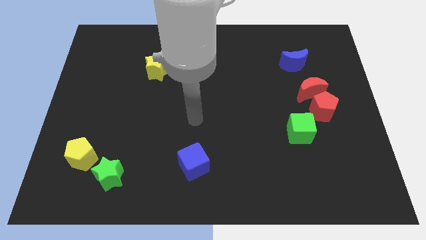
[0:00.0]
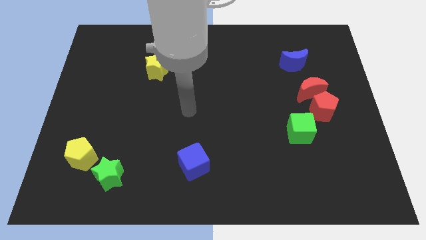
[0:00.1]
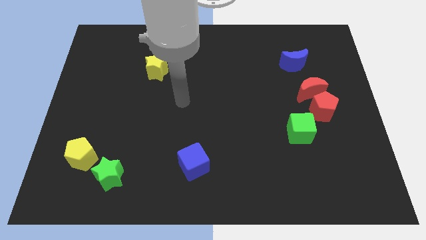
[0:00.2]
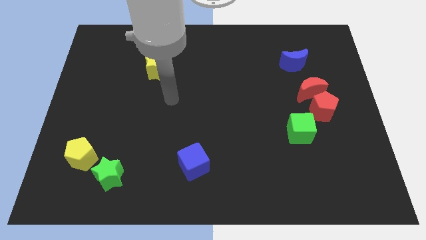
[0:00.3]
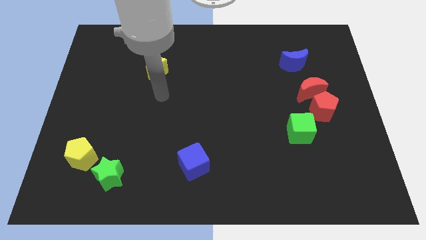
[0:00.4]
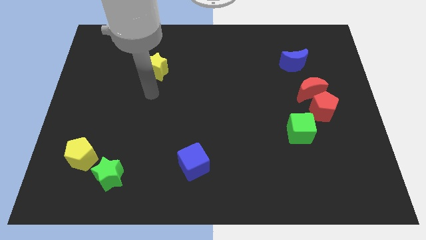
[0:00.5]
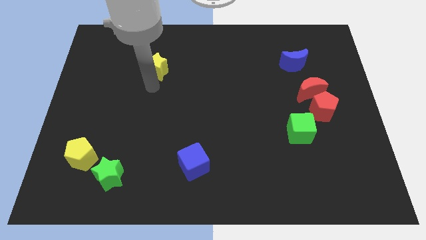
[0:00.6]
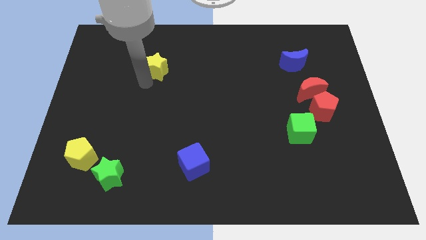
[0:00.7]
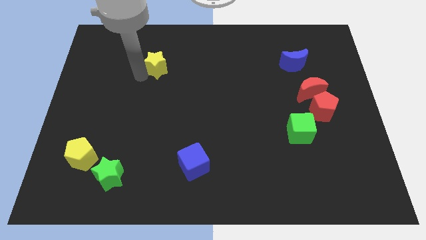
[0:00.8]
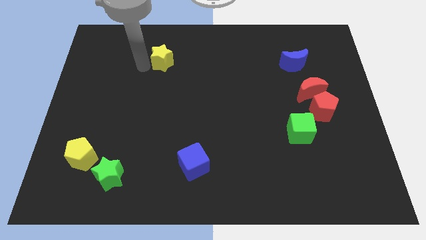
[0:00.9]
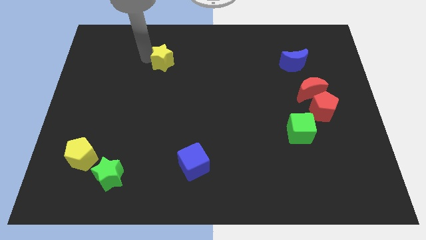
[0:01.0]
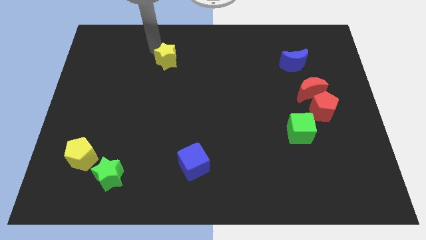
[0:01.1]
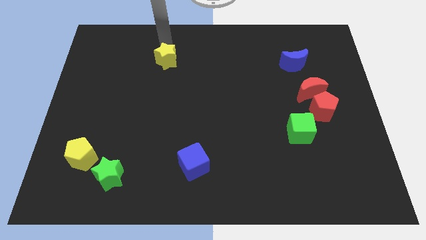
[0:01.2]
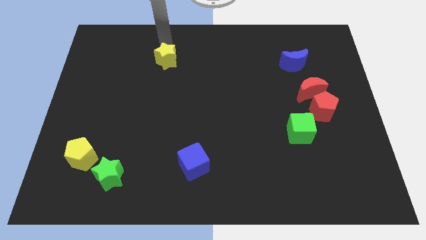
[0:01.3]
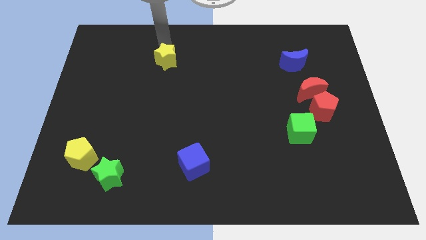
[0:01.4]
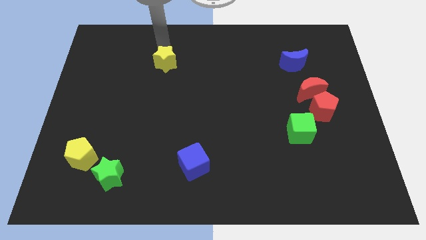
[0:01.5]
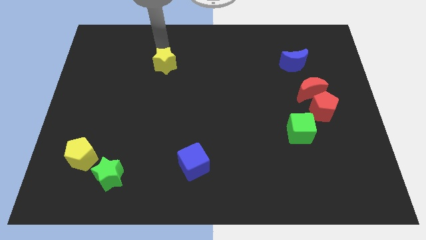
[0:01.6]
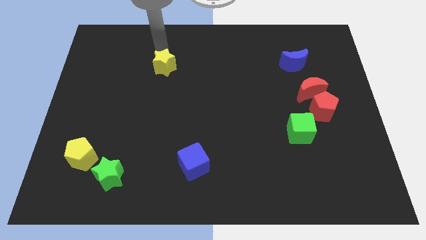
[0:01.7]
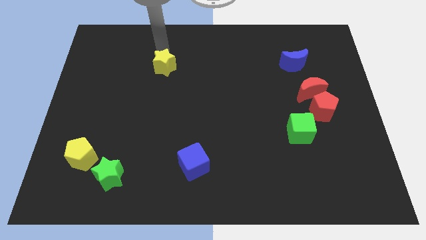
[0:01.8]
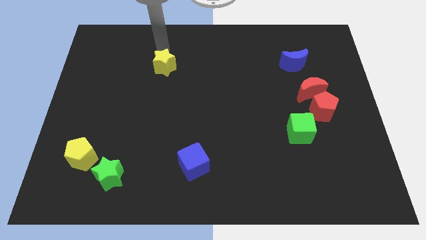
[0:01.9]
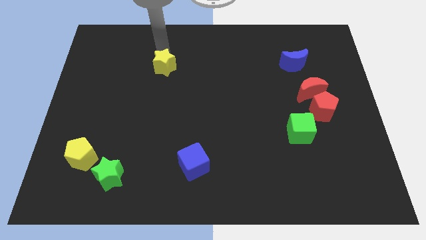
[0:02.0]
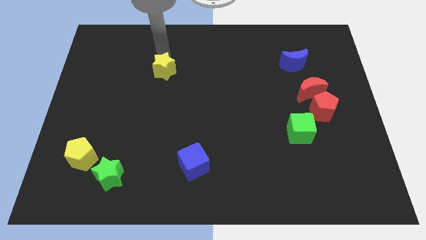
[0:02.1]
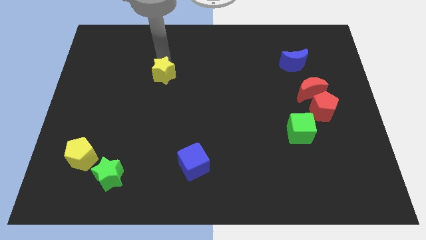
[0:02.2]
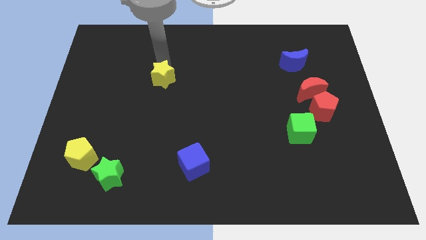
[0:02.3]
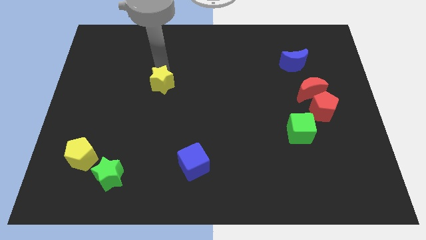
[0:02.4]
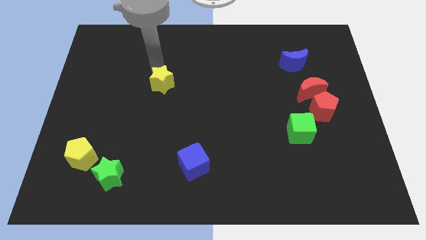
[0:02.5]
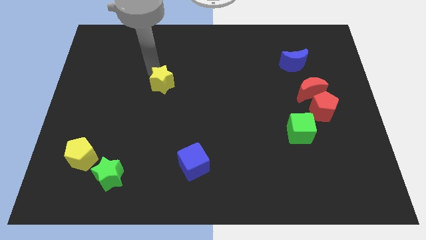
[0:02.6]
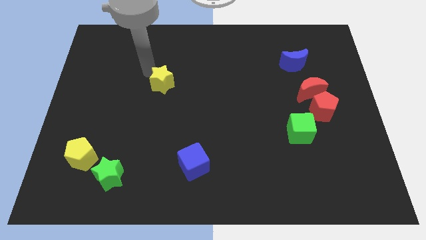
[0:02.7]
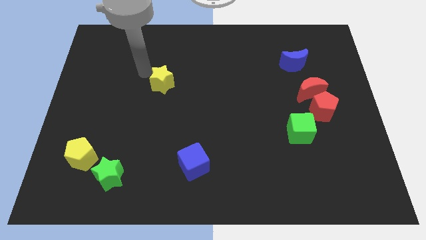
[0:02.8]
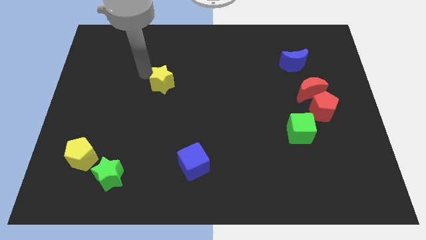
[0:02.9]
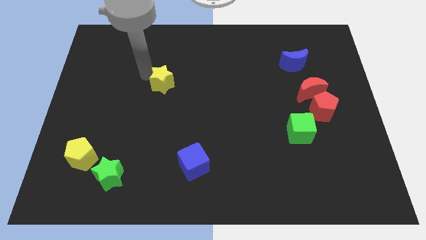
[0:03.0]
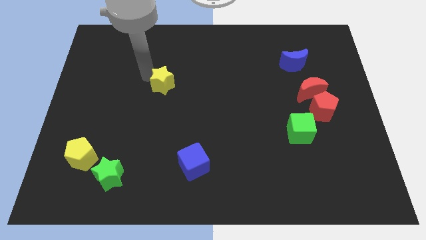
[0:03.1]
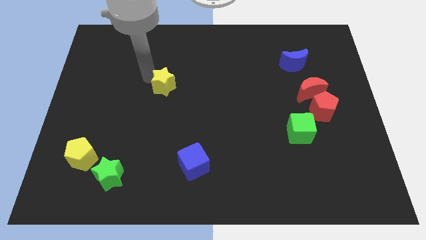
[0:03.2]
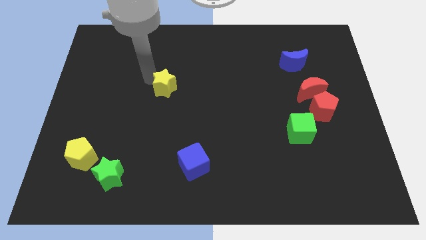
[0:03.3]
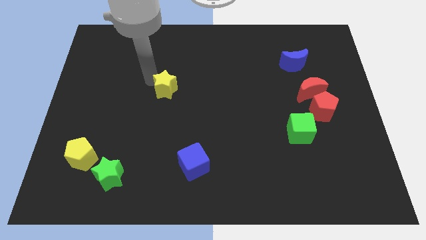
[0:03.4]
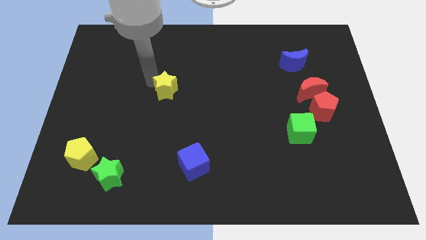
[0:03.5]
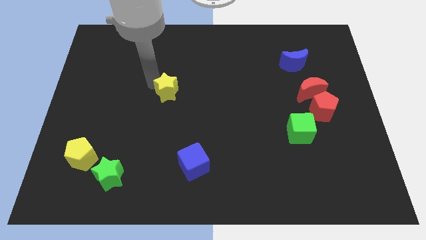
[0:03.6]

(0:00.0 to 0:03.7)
push the yellow star a little down and then right

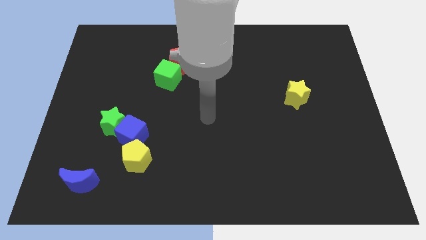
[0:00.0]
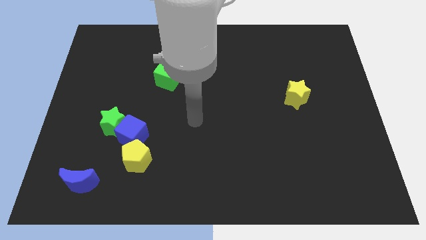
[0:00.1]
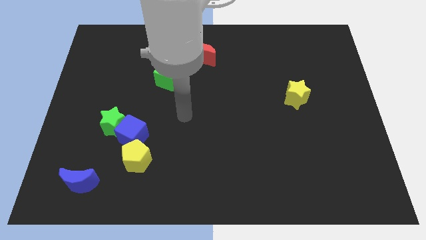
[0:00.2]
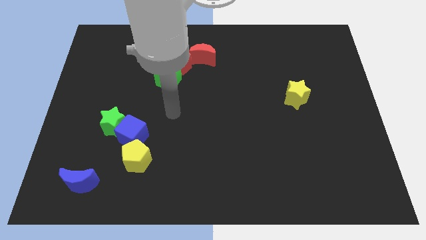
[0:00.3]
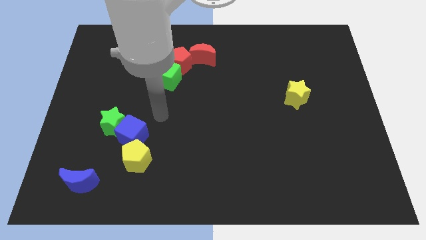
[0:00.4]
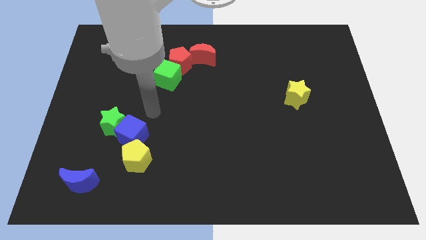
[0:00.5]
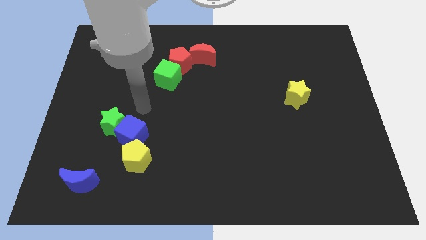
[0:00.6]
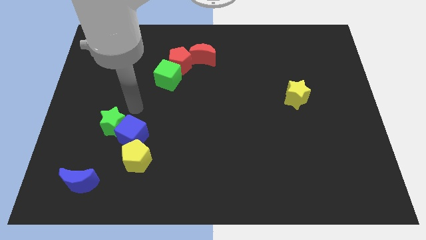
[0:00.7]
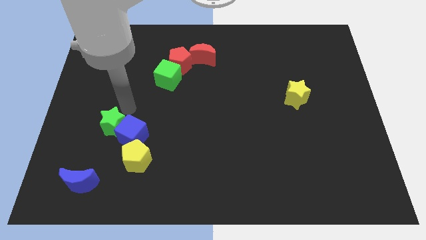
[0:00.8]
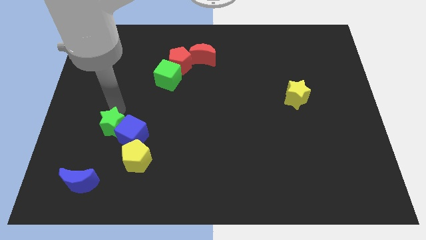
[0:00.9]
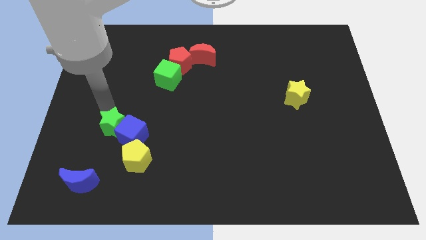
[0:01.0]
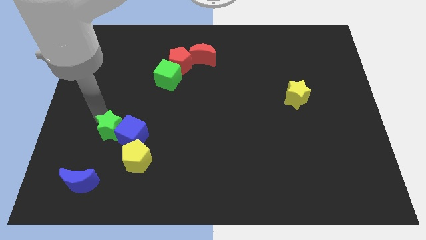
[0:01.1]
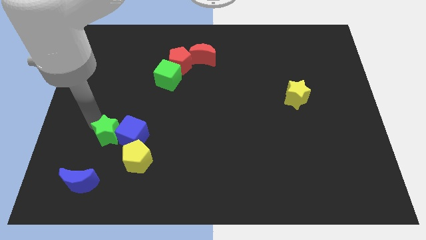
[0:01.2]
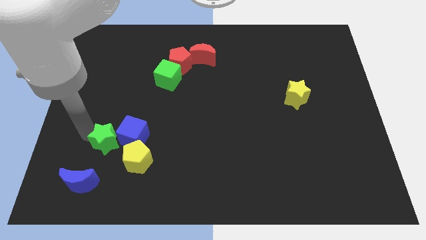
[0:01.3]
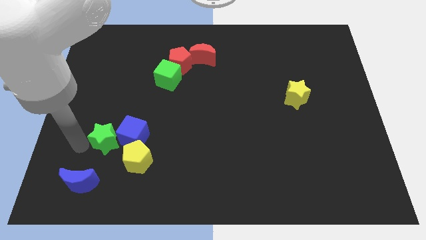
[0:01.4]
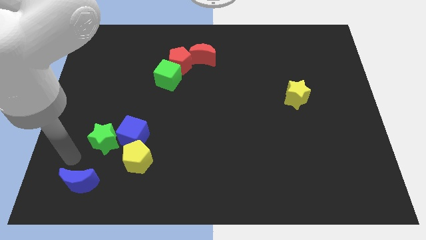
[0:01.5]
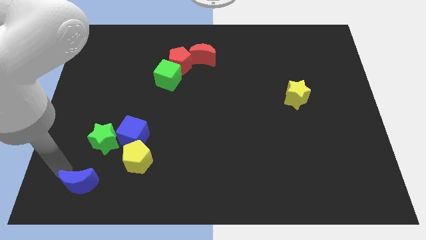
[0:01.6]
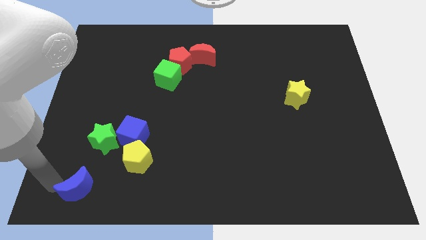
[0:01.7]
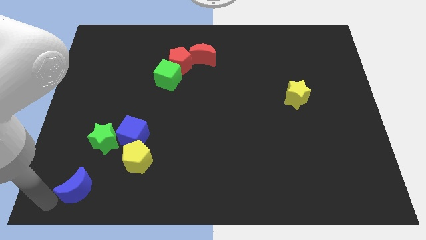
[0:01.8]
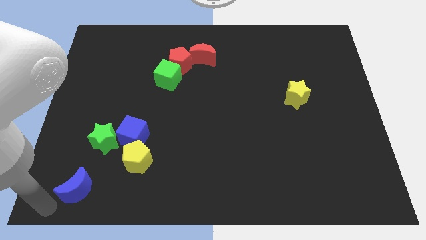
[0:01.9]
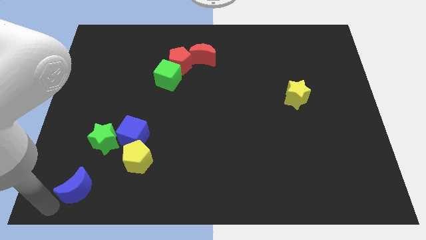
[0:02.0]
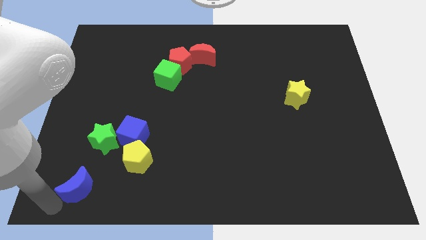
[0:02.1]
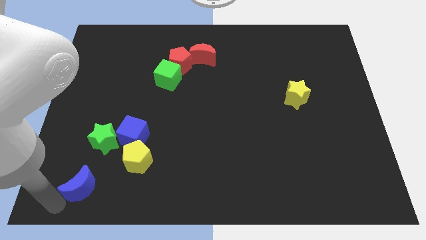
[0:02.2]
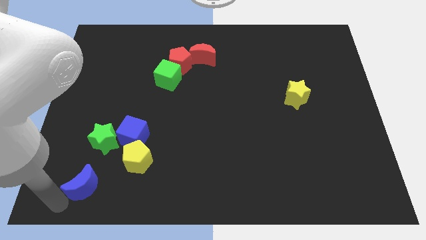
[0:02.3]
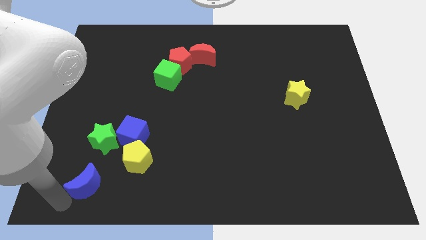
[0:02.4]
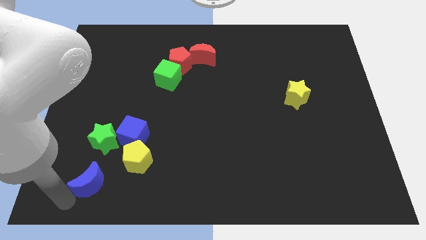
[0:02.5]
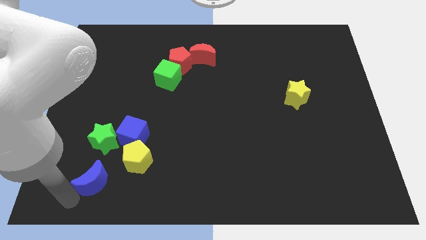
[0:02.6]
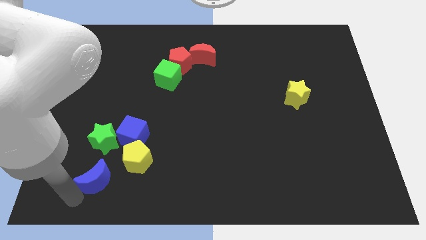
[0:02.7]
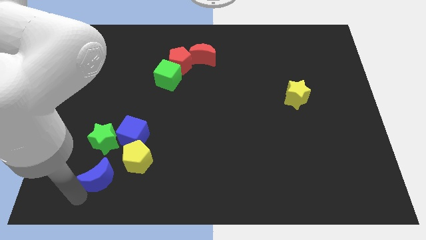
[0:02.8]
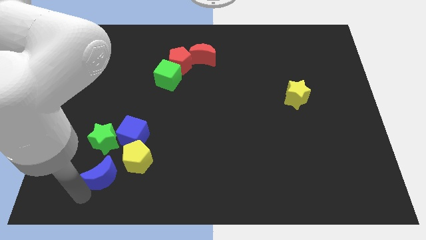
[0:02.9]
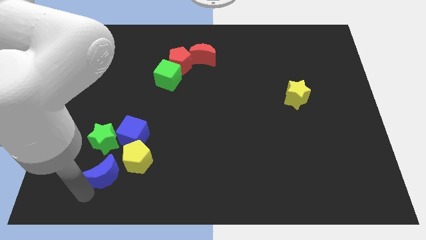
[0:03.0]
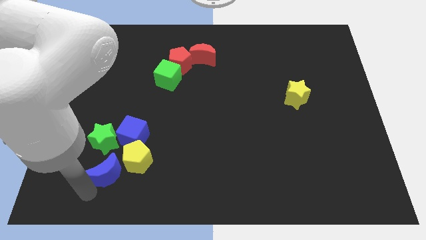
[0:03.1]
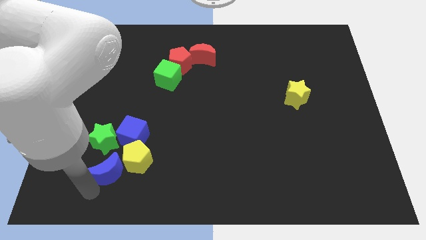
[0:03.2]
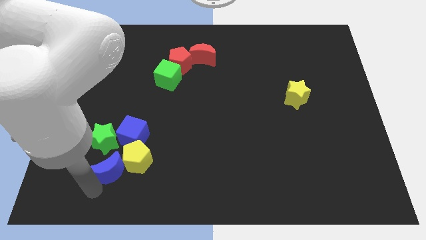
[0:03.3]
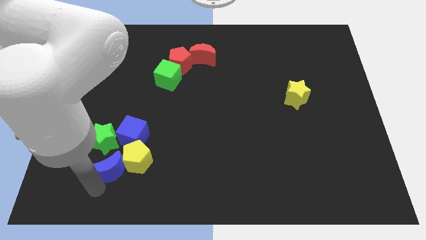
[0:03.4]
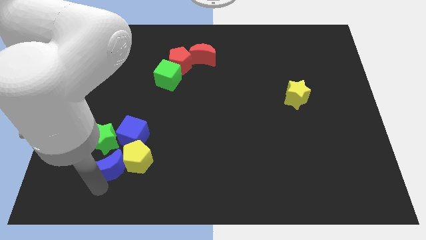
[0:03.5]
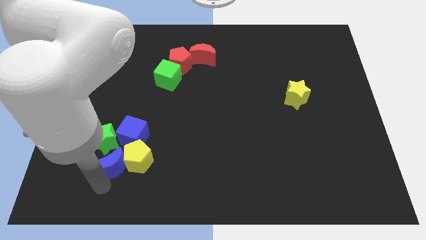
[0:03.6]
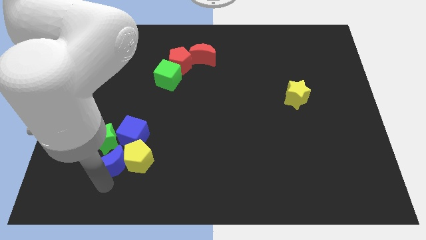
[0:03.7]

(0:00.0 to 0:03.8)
move the blue moon a little bit diagonally up and to the right

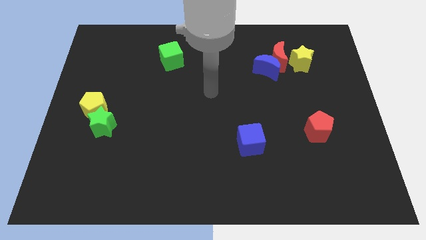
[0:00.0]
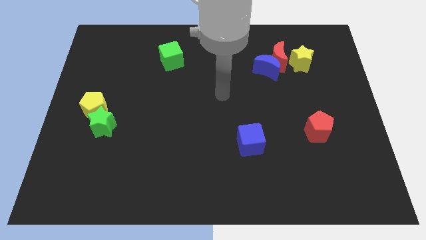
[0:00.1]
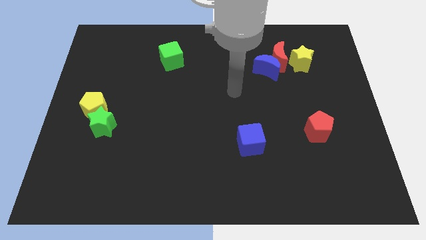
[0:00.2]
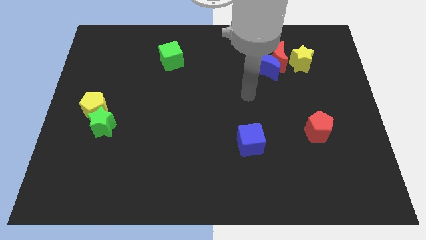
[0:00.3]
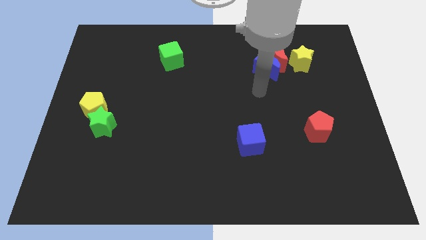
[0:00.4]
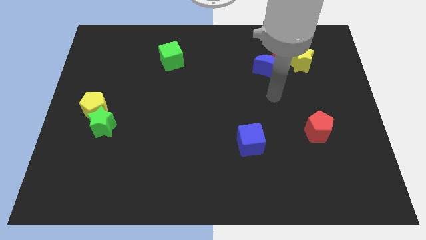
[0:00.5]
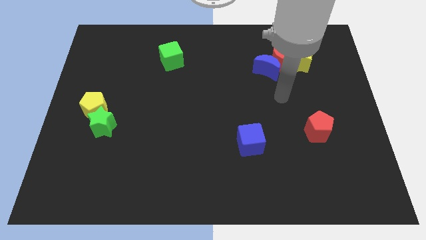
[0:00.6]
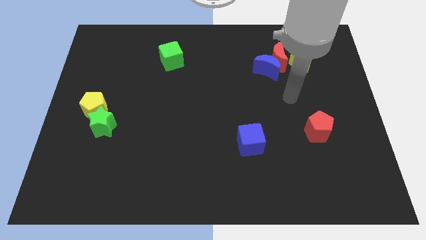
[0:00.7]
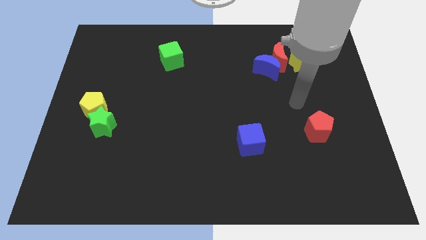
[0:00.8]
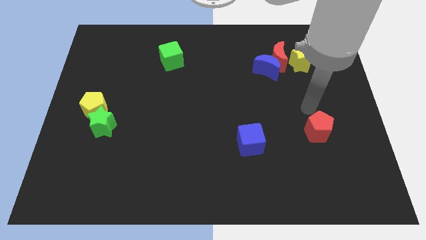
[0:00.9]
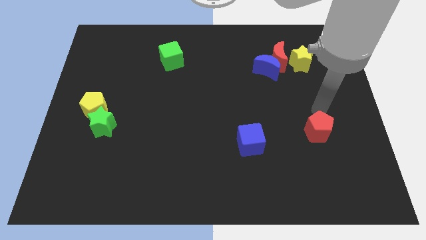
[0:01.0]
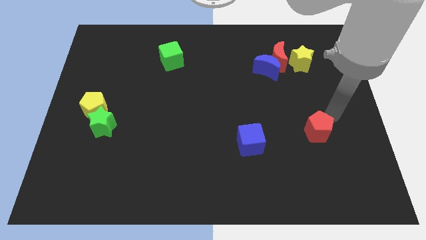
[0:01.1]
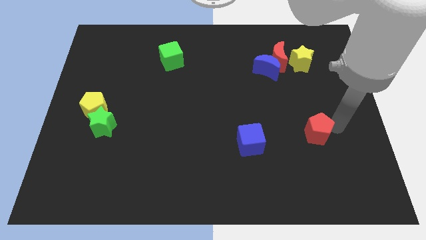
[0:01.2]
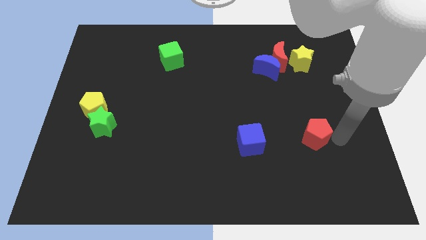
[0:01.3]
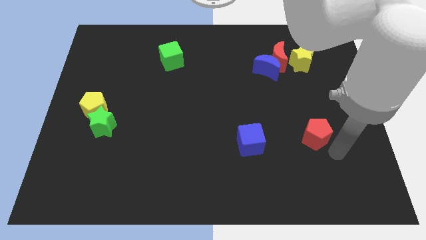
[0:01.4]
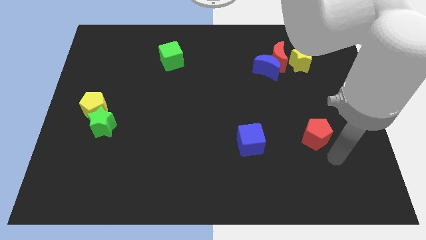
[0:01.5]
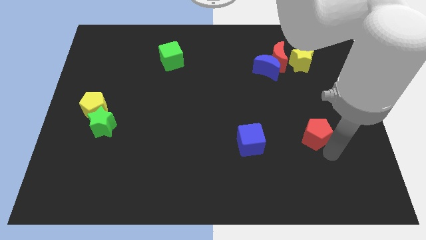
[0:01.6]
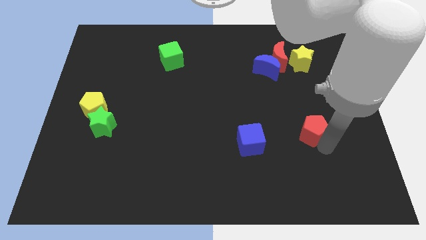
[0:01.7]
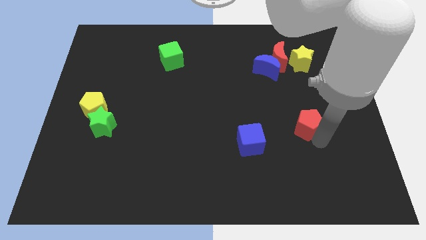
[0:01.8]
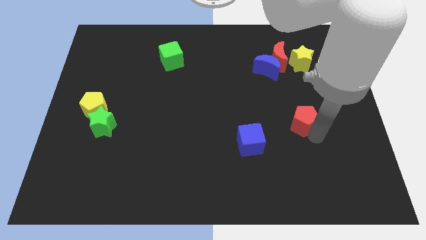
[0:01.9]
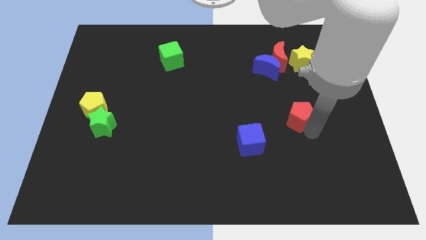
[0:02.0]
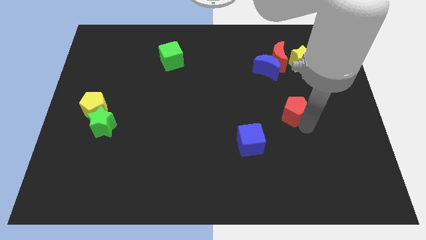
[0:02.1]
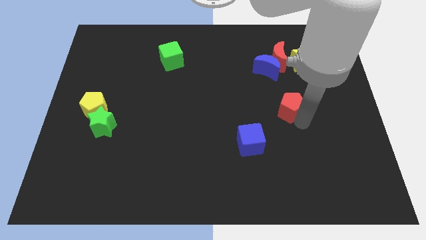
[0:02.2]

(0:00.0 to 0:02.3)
push the red pentagon diagonally upwards and left a little
